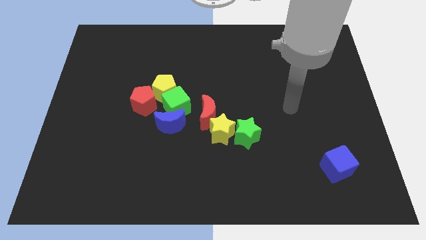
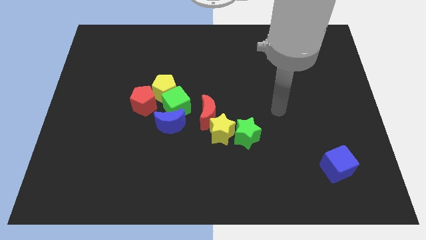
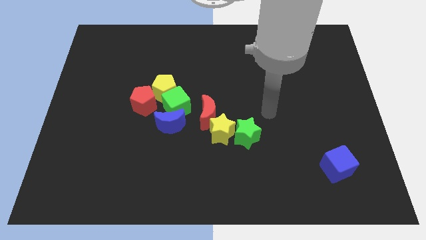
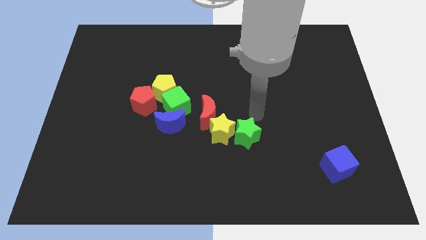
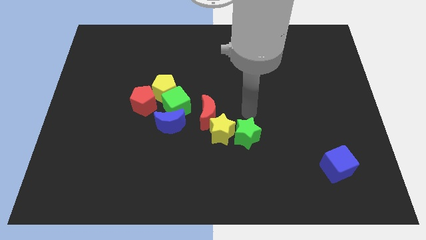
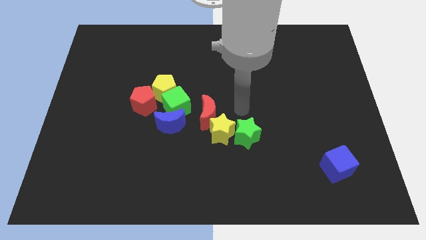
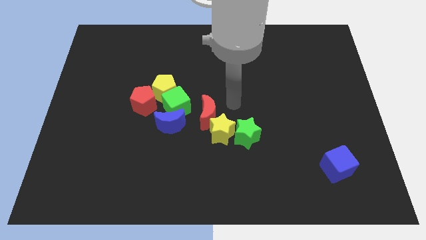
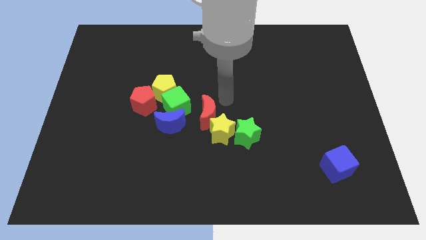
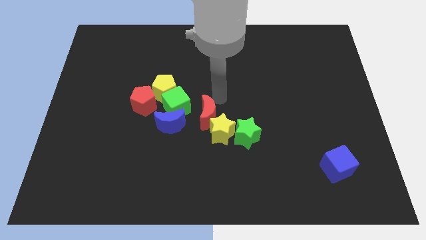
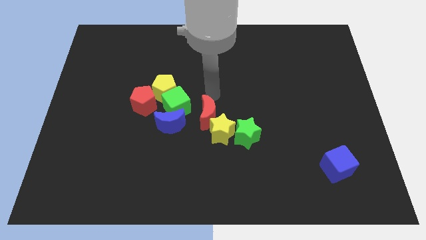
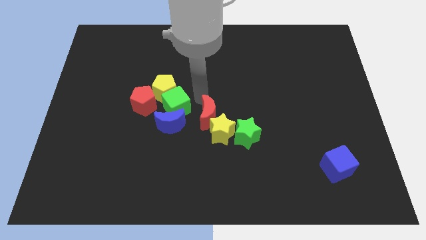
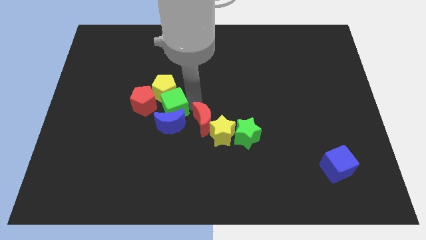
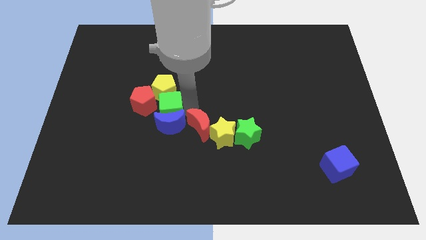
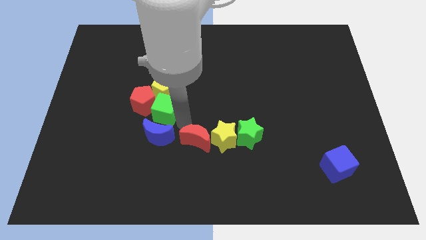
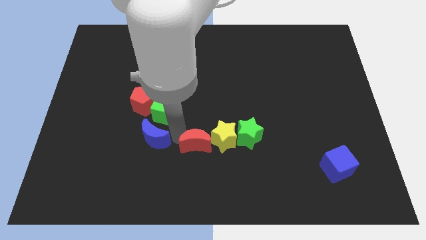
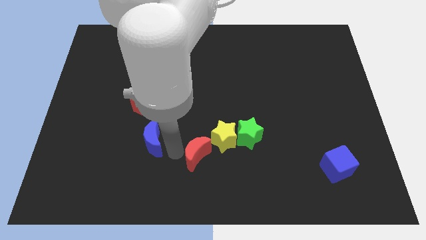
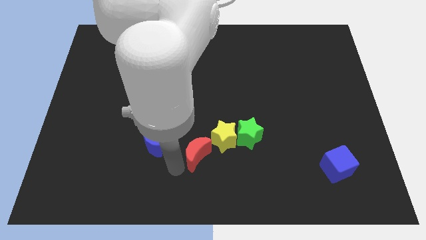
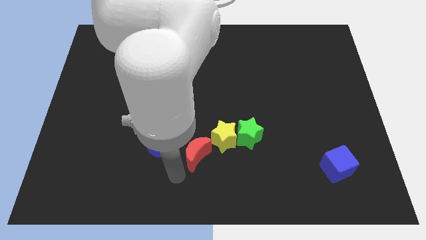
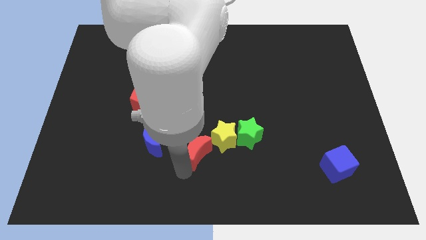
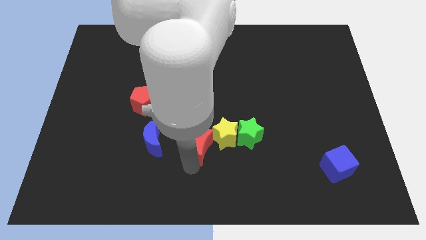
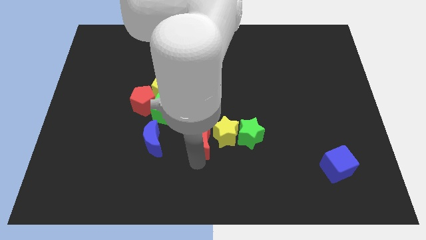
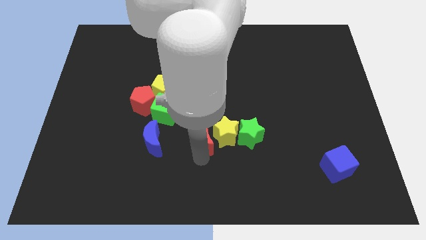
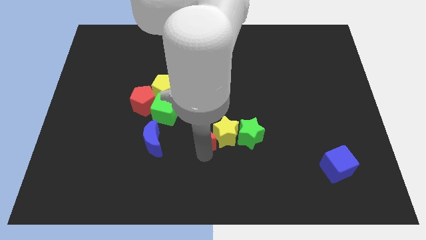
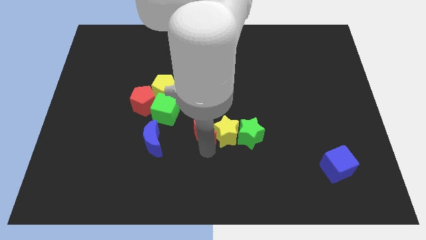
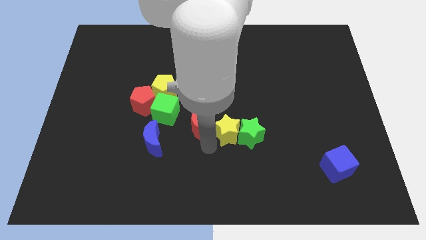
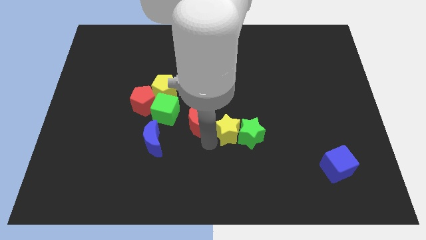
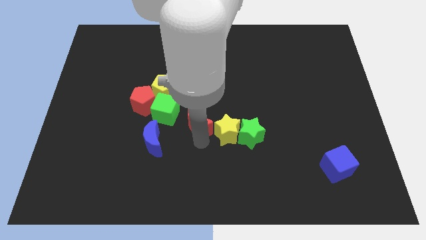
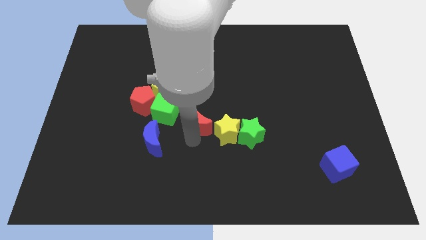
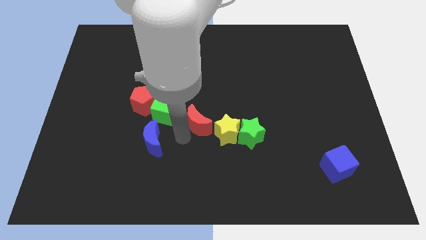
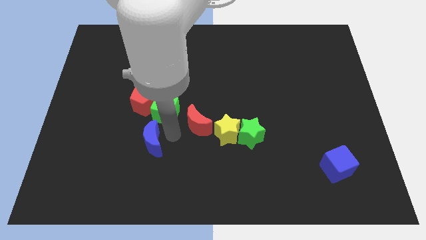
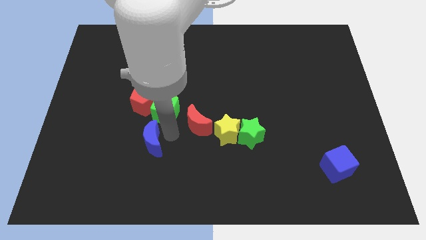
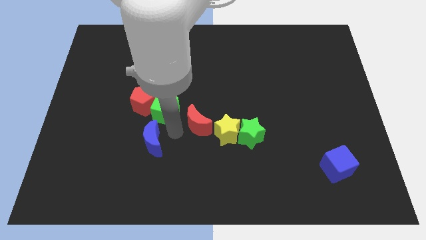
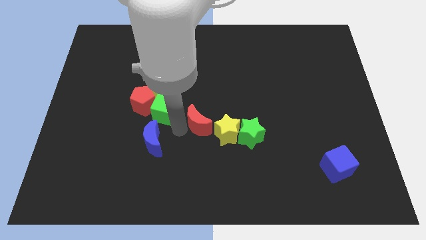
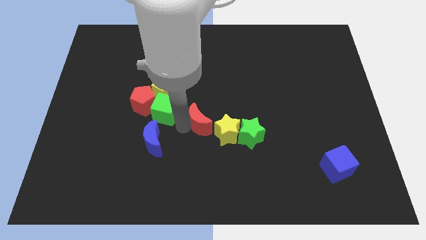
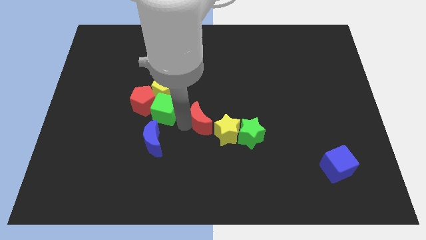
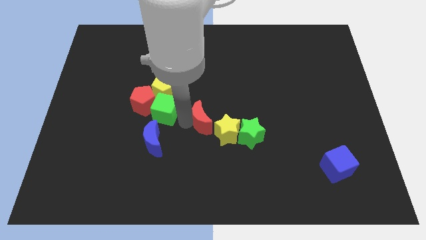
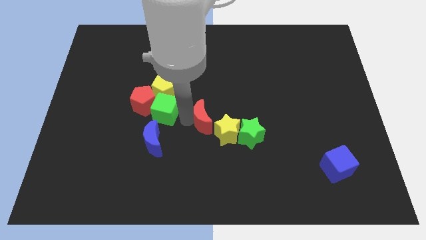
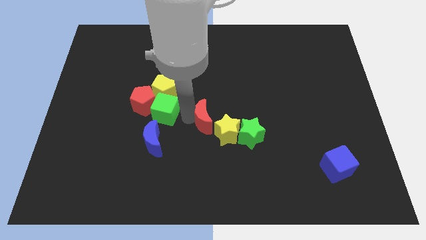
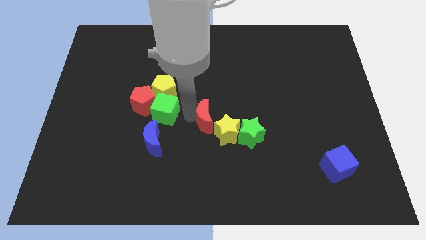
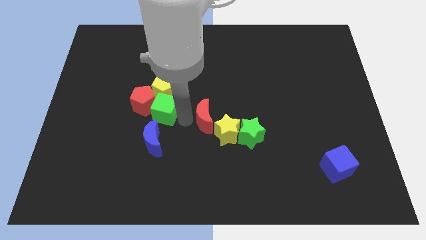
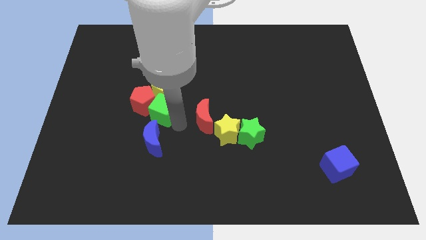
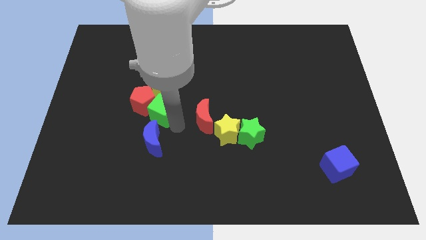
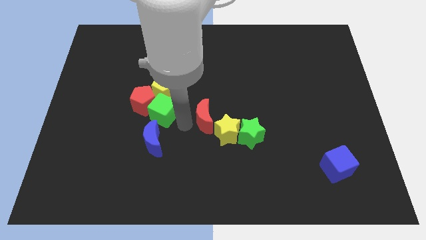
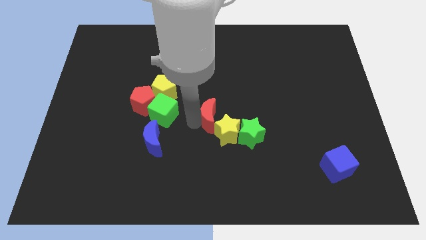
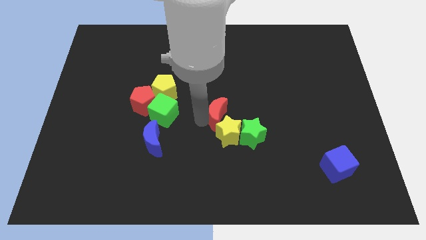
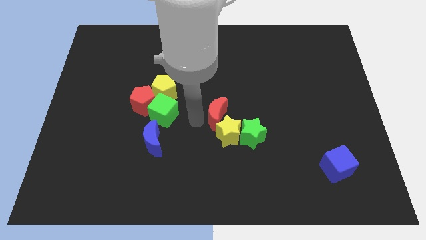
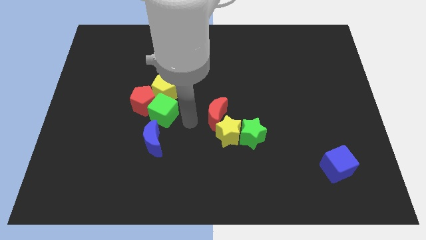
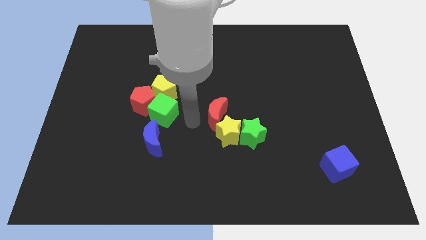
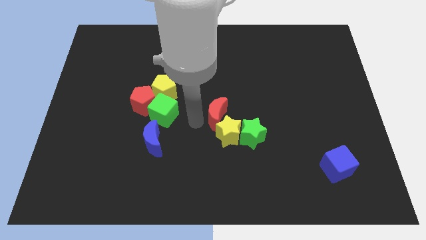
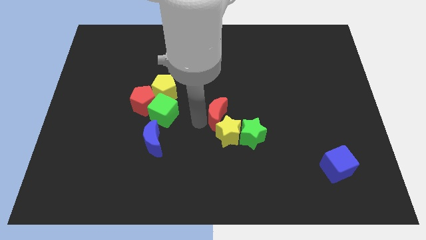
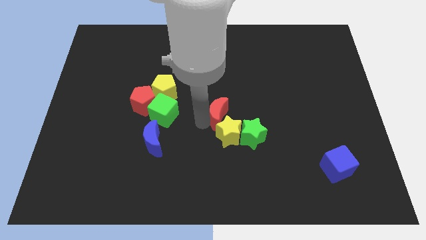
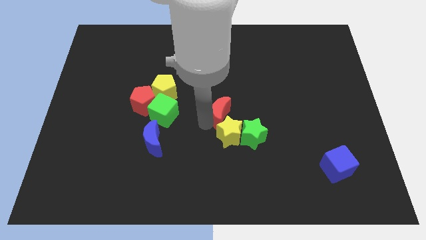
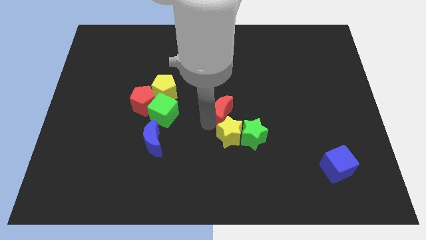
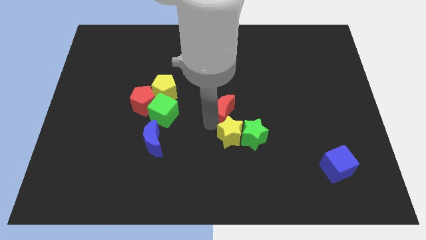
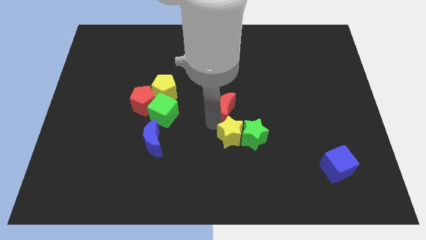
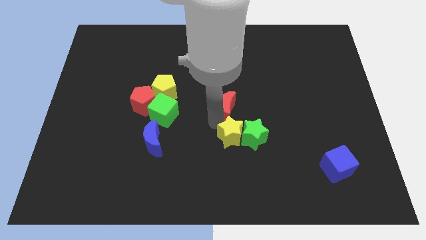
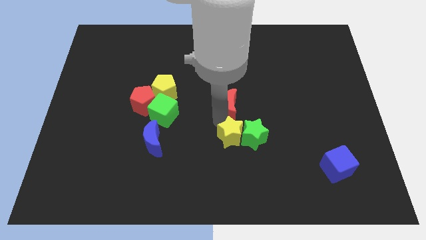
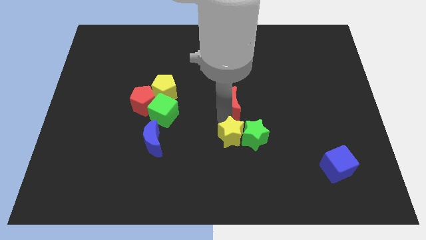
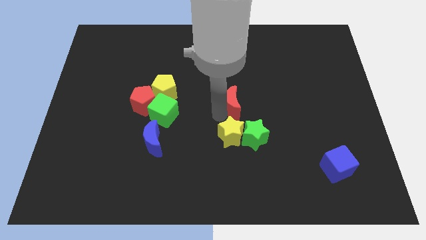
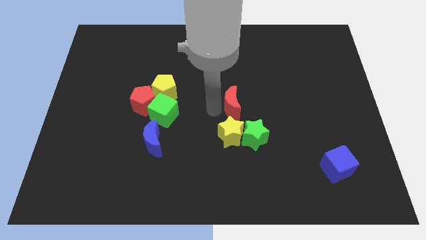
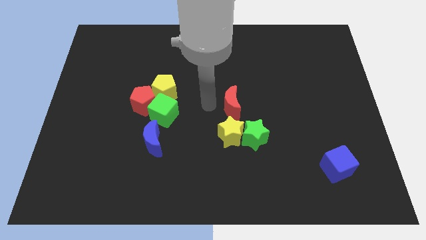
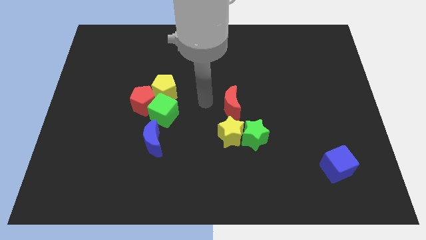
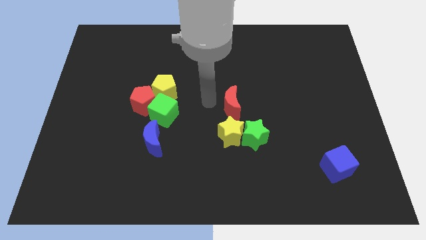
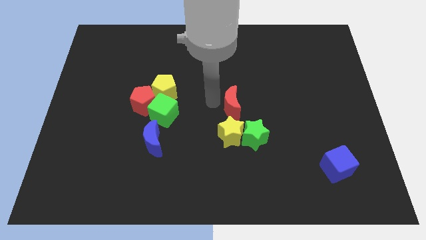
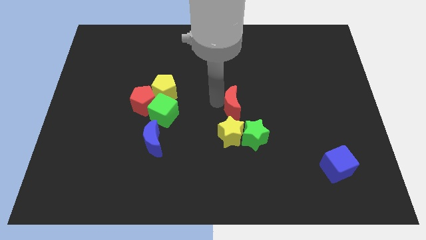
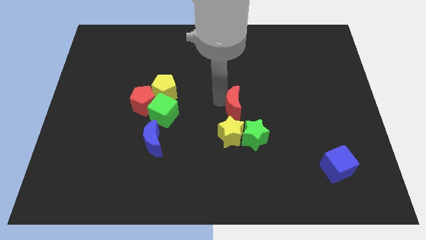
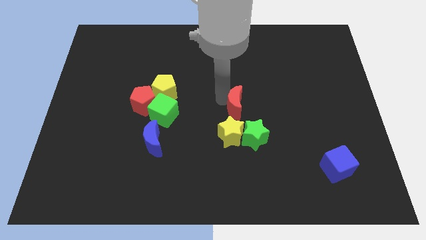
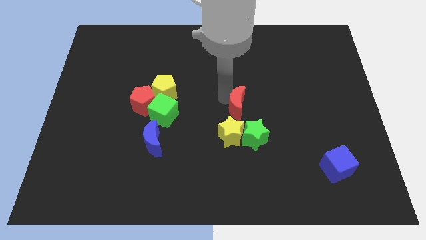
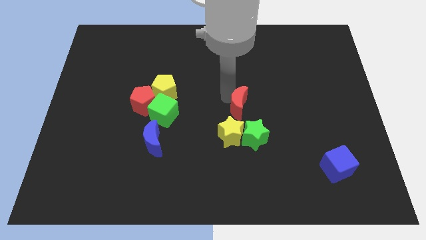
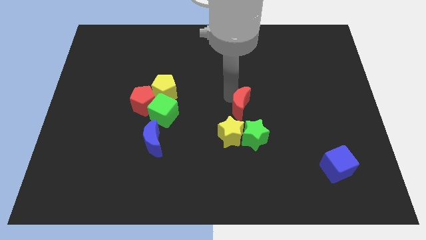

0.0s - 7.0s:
slightly slide the red moon to the right

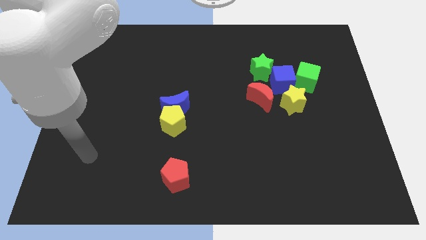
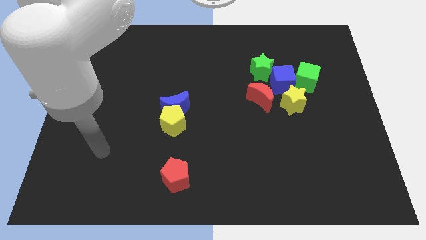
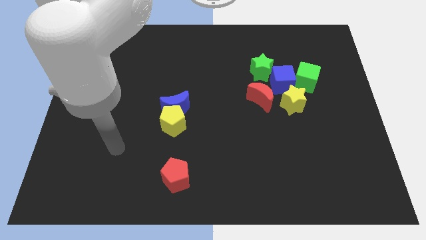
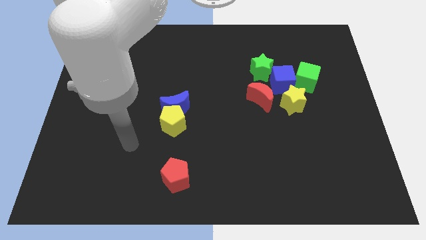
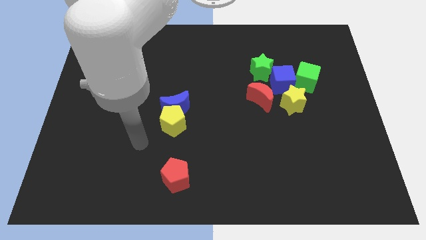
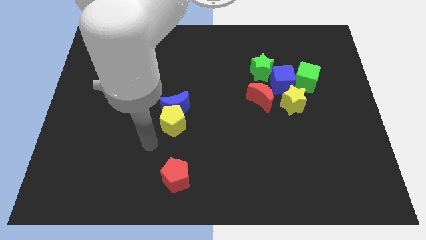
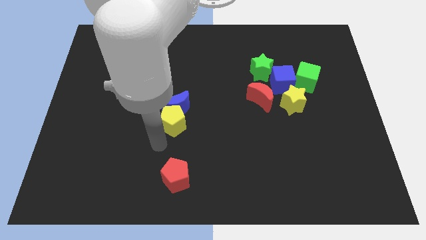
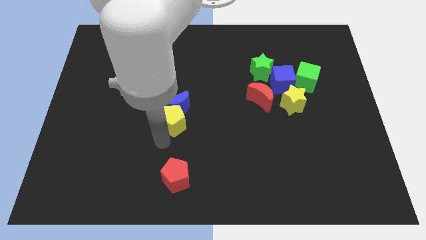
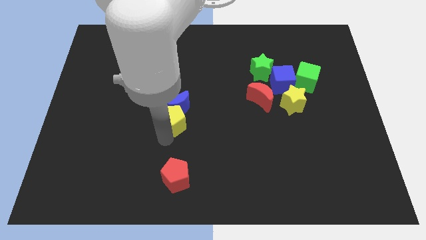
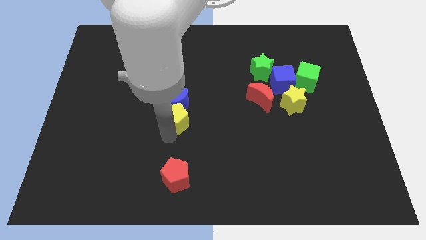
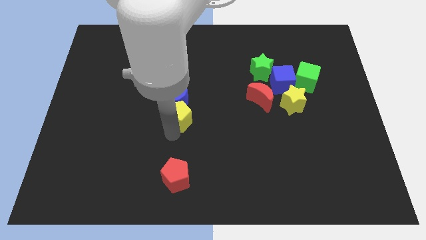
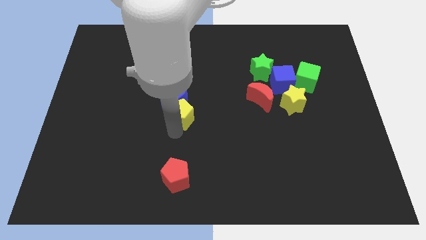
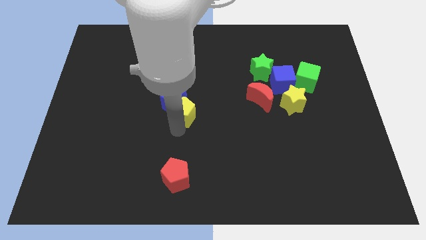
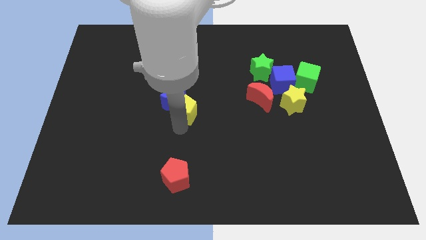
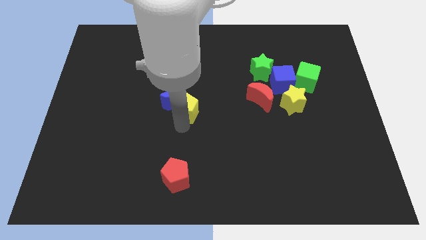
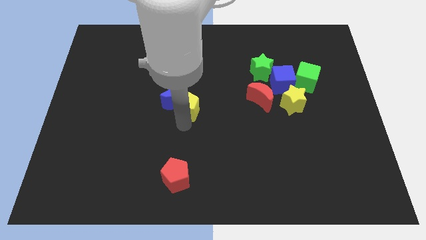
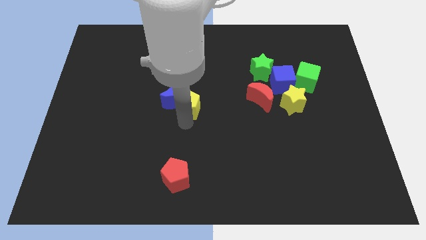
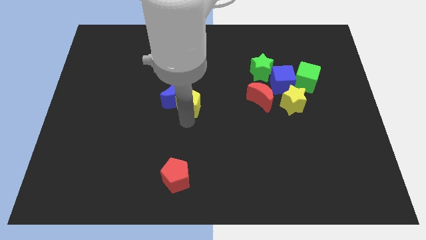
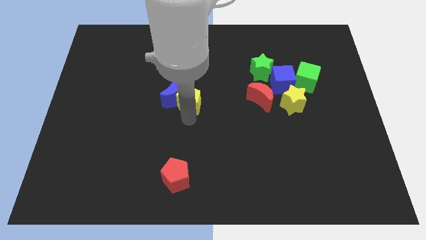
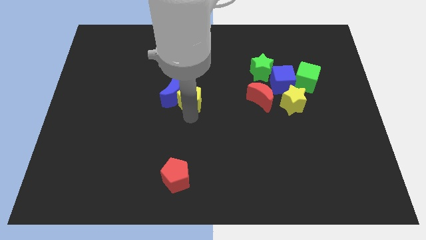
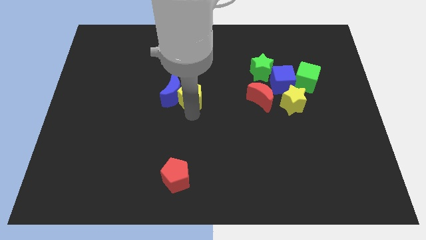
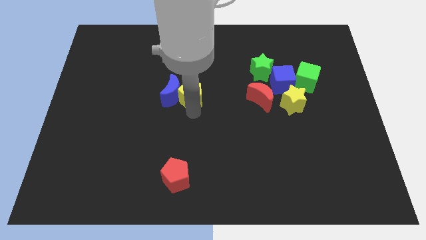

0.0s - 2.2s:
slightly move the yellow pentagon up
